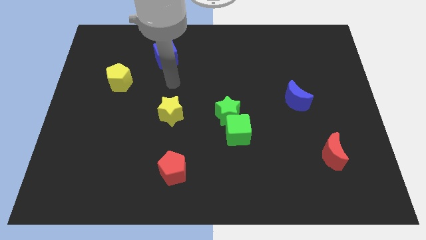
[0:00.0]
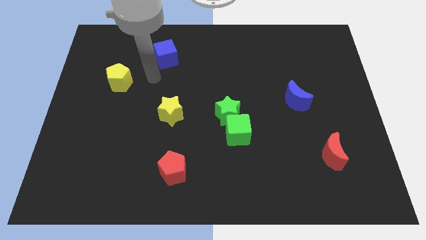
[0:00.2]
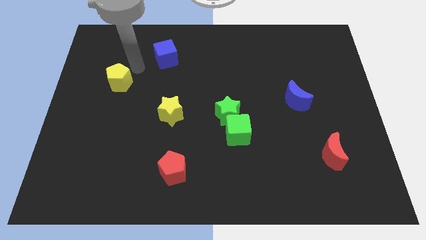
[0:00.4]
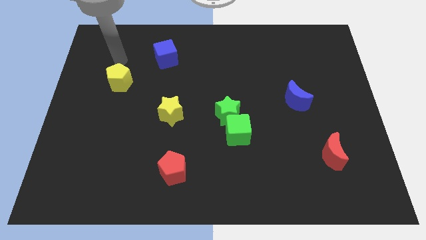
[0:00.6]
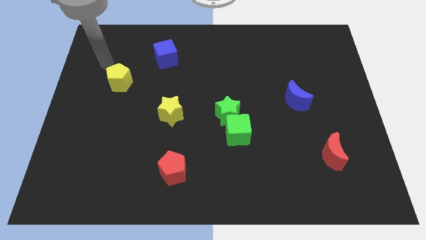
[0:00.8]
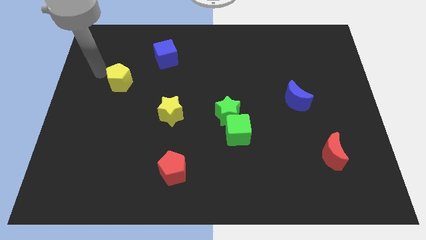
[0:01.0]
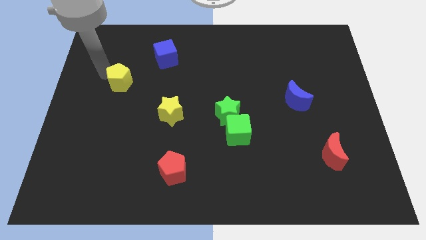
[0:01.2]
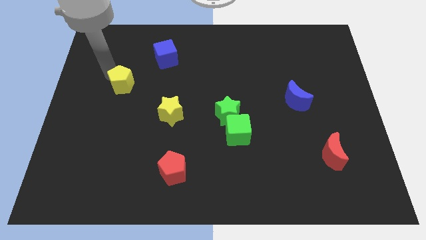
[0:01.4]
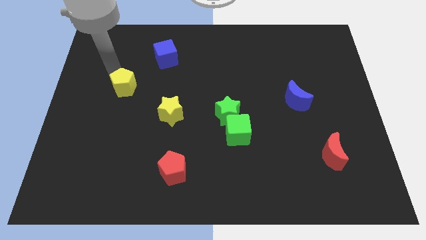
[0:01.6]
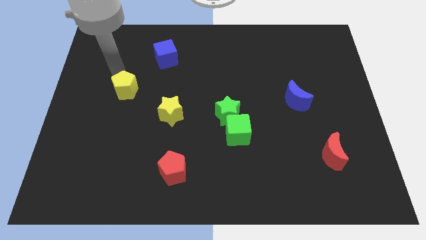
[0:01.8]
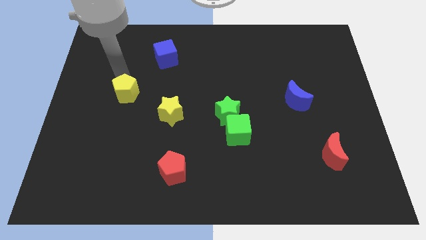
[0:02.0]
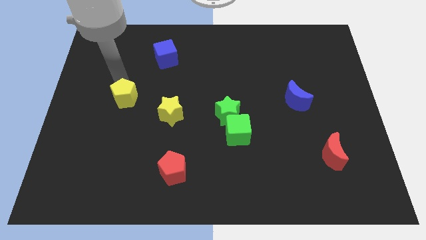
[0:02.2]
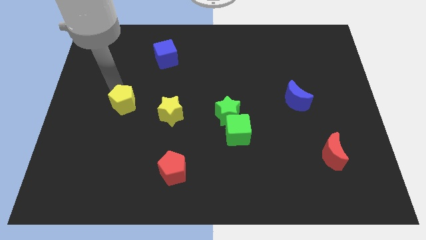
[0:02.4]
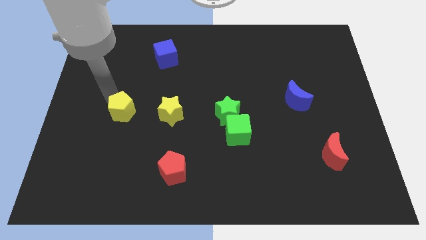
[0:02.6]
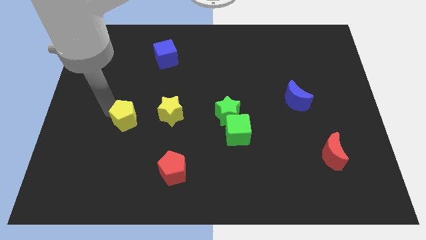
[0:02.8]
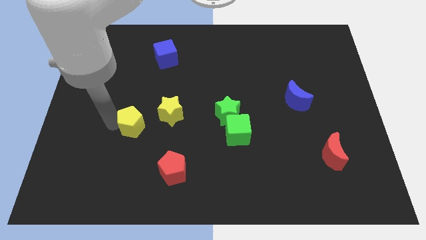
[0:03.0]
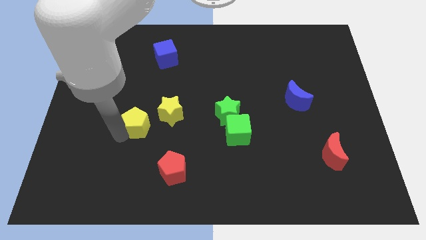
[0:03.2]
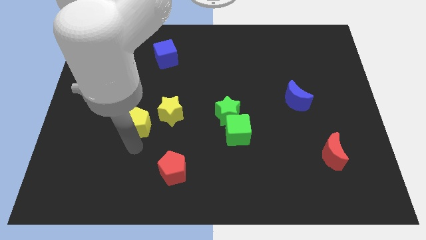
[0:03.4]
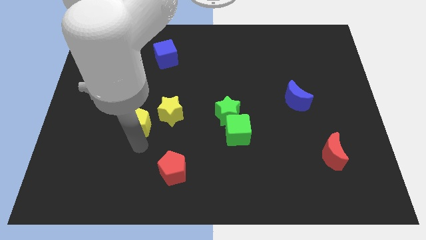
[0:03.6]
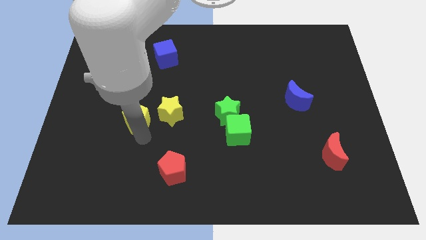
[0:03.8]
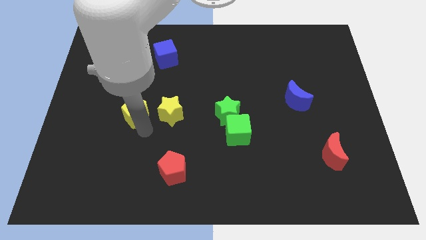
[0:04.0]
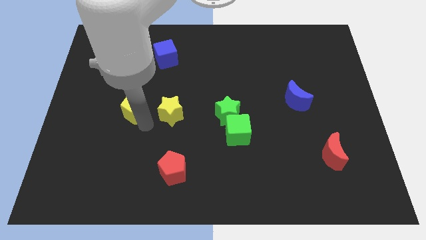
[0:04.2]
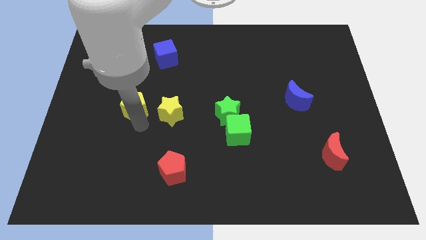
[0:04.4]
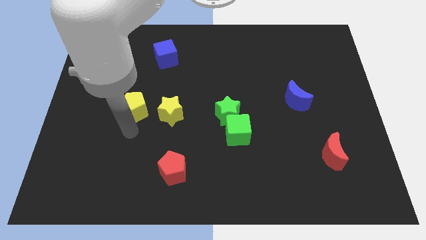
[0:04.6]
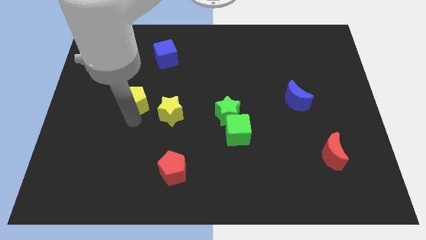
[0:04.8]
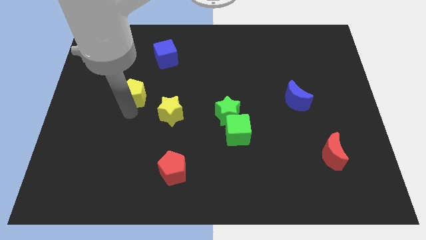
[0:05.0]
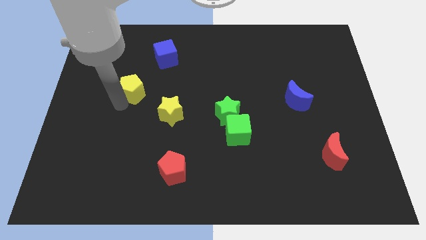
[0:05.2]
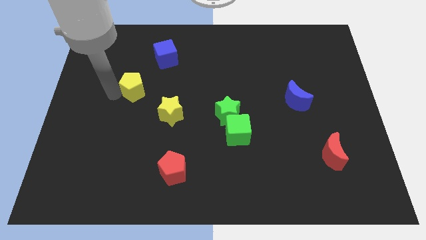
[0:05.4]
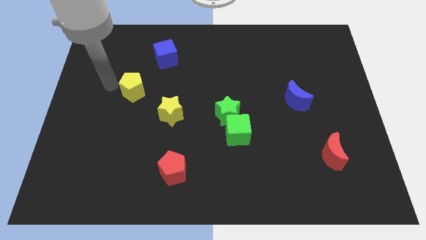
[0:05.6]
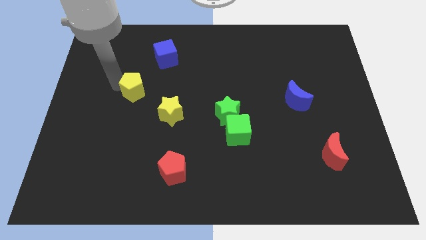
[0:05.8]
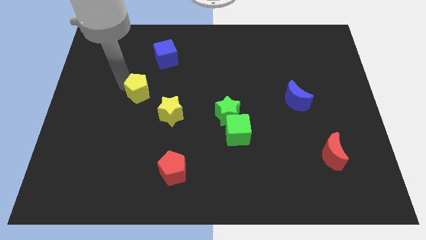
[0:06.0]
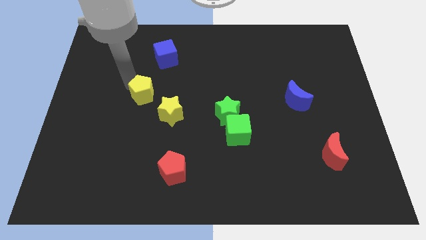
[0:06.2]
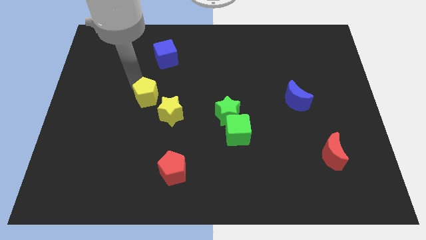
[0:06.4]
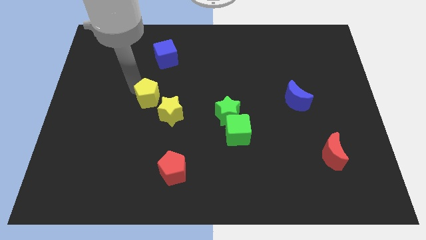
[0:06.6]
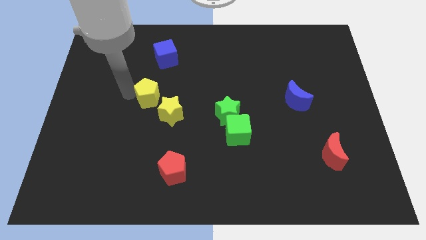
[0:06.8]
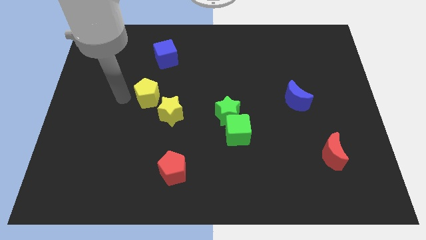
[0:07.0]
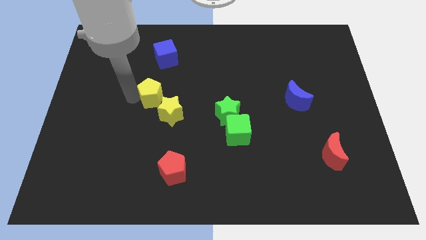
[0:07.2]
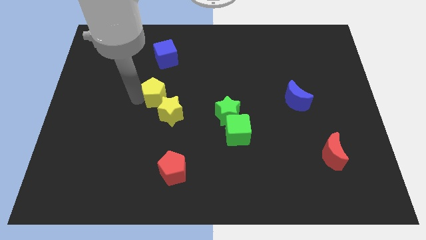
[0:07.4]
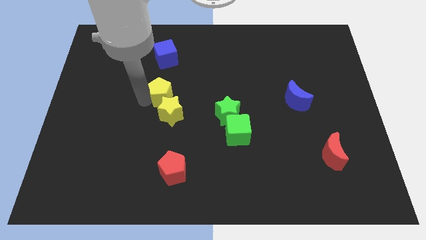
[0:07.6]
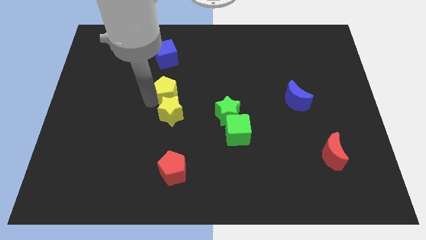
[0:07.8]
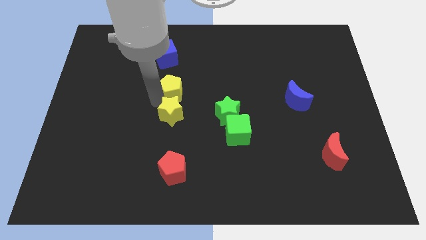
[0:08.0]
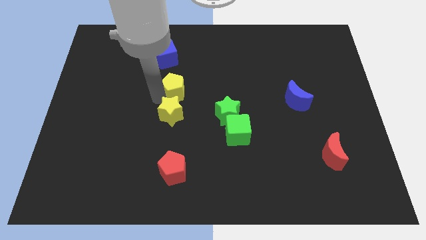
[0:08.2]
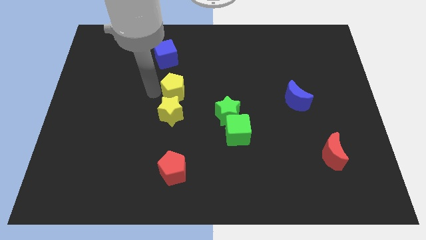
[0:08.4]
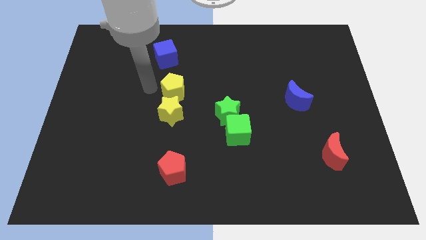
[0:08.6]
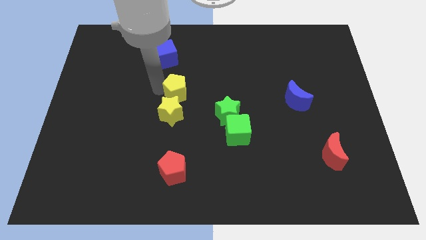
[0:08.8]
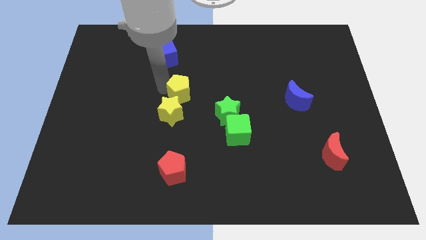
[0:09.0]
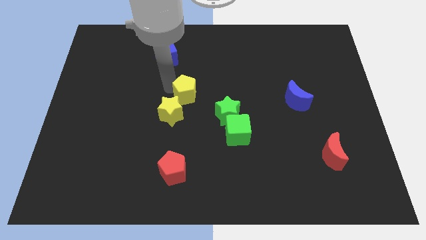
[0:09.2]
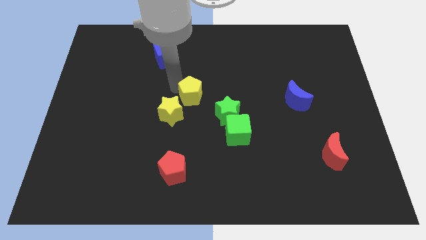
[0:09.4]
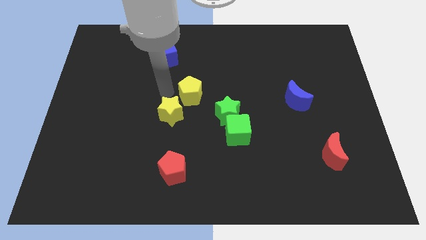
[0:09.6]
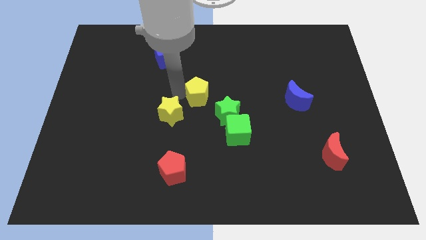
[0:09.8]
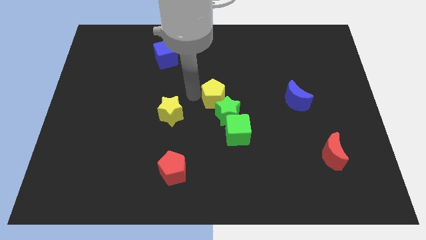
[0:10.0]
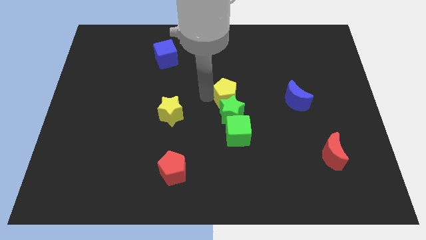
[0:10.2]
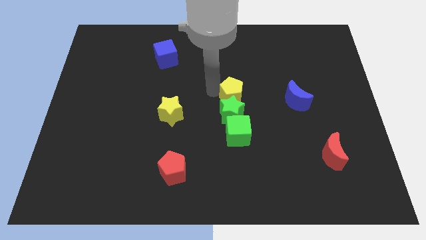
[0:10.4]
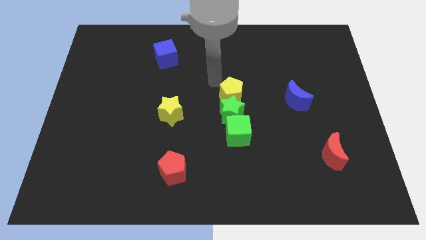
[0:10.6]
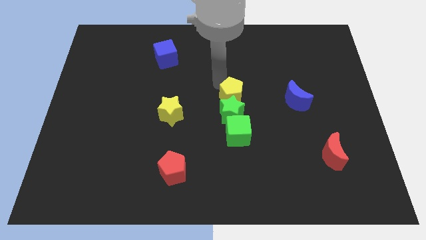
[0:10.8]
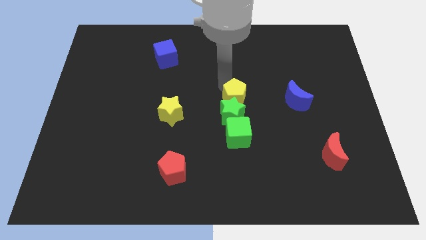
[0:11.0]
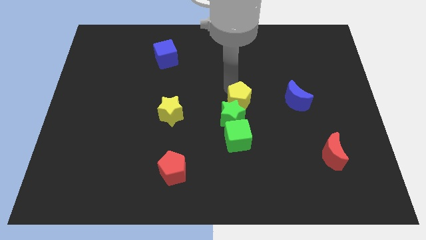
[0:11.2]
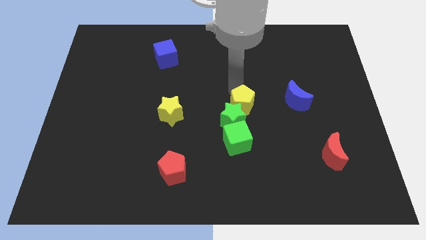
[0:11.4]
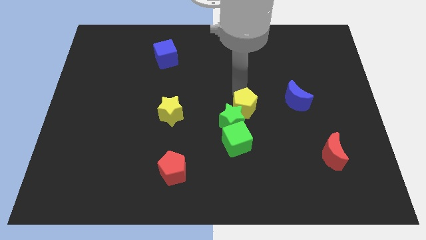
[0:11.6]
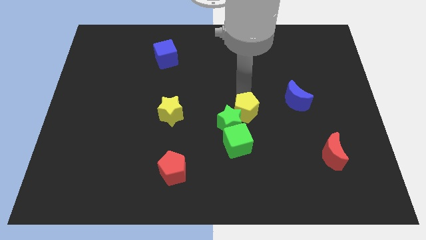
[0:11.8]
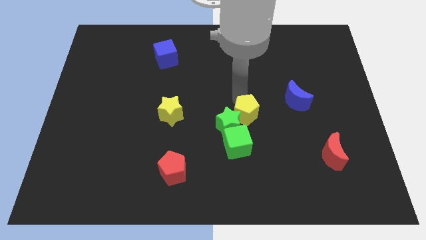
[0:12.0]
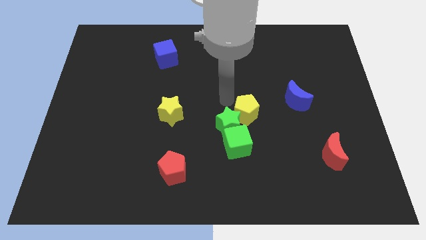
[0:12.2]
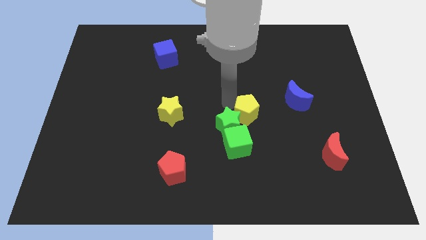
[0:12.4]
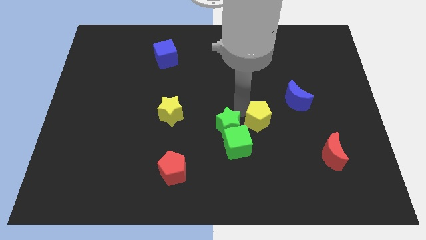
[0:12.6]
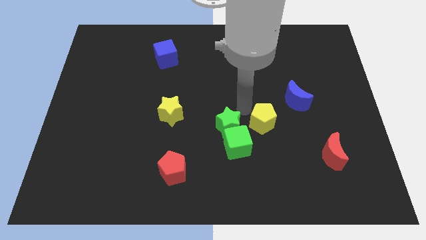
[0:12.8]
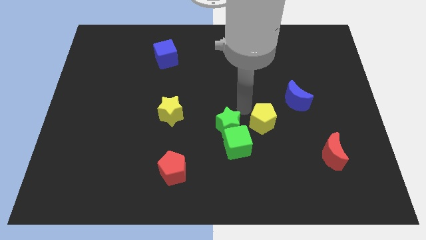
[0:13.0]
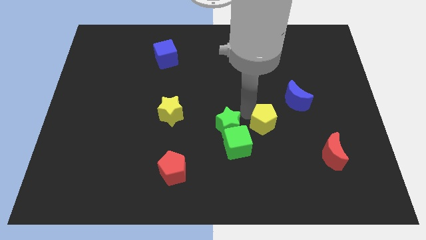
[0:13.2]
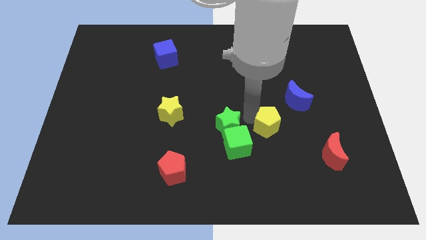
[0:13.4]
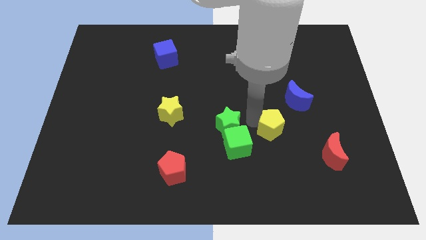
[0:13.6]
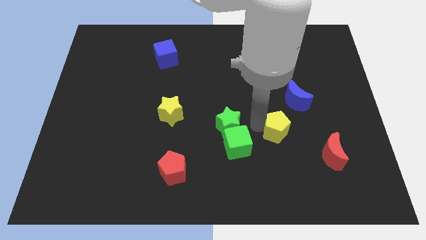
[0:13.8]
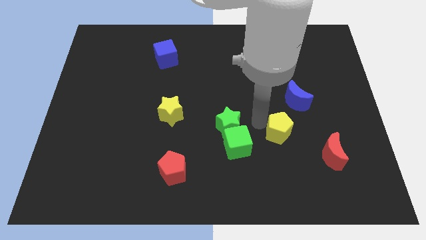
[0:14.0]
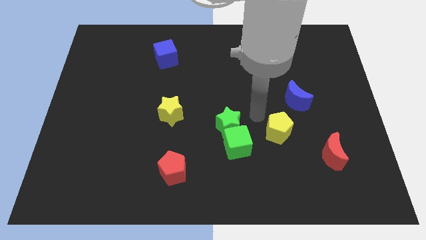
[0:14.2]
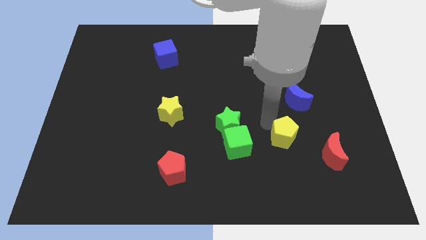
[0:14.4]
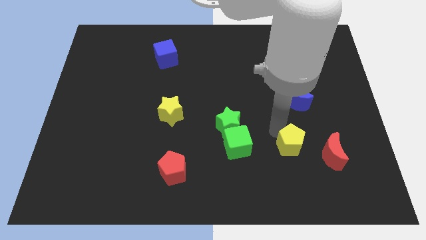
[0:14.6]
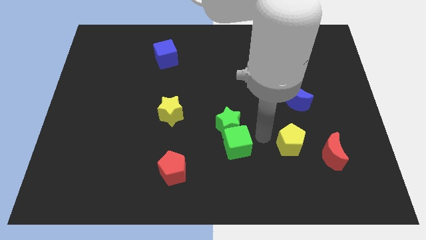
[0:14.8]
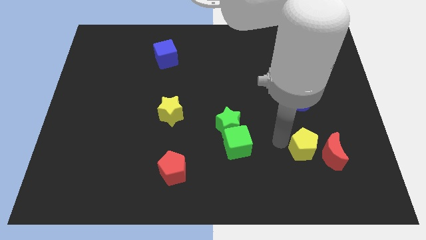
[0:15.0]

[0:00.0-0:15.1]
move the yellow pentagon close to the red moon

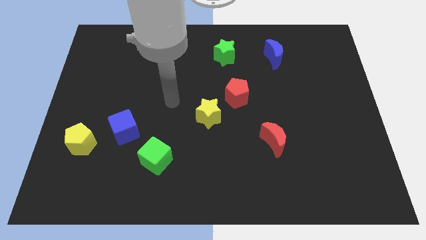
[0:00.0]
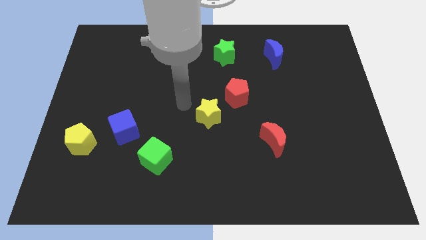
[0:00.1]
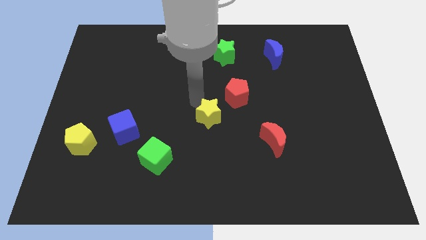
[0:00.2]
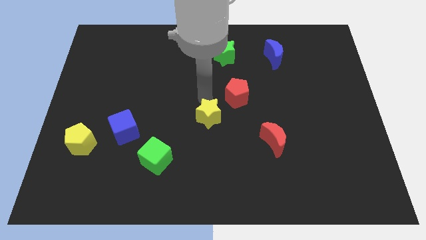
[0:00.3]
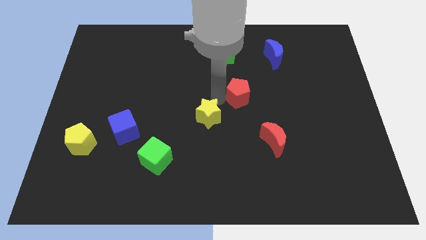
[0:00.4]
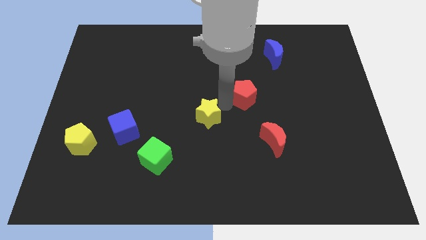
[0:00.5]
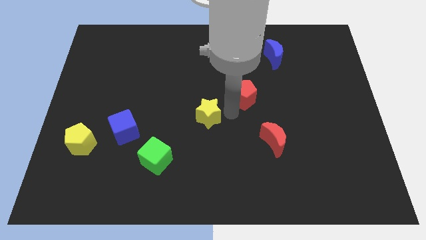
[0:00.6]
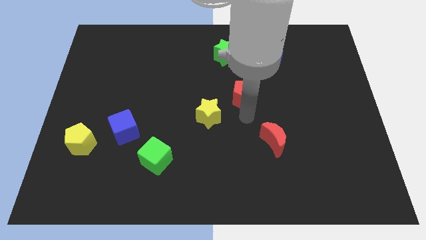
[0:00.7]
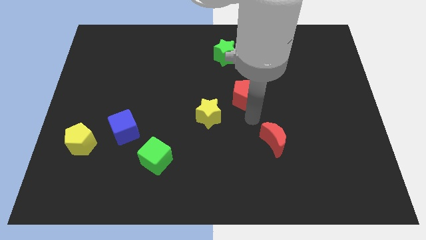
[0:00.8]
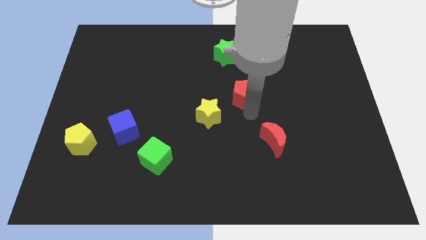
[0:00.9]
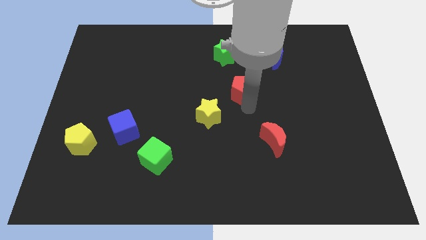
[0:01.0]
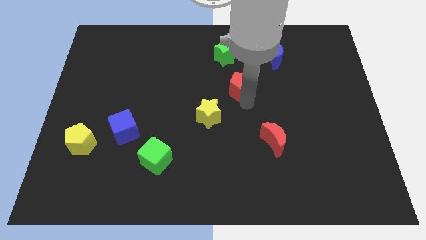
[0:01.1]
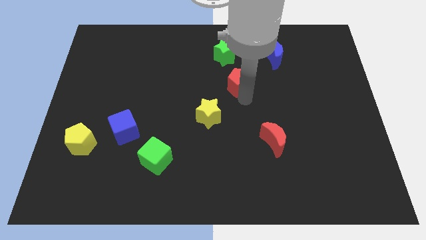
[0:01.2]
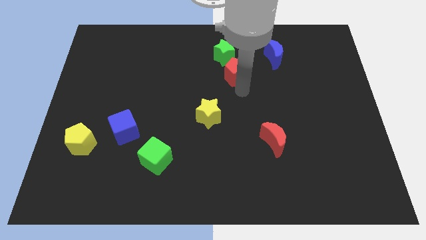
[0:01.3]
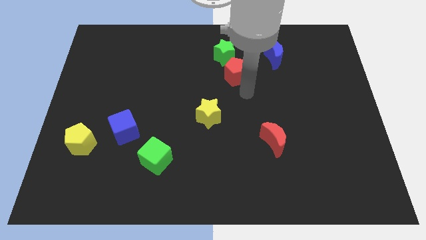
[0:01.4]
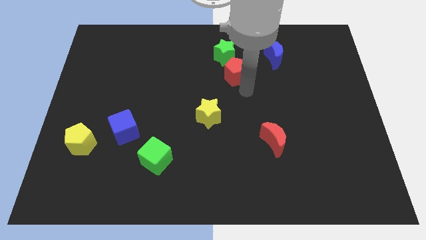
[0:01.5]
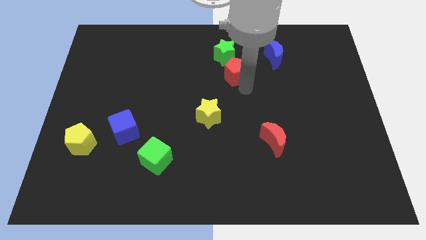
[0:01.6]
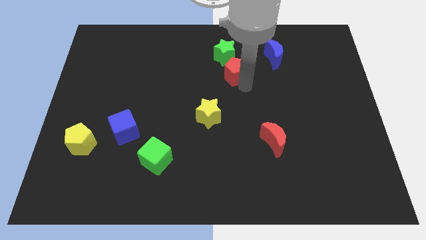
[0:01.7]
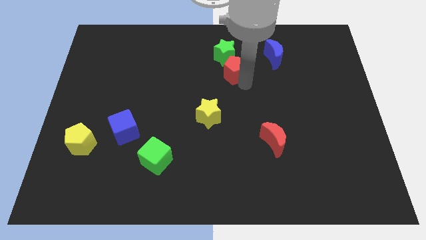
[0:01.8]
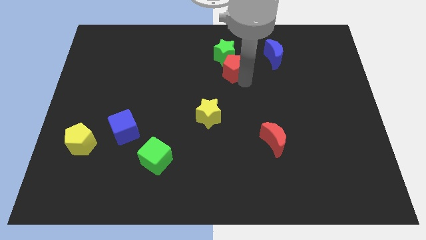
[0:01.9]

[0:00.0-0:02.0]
put the red pentagon next to the green star
